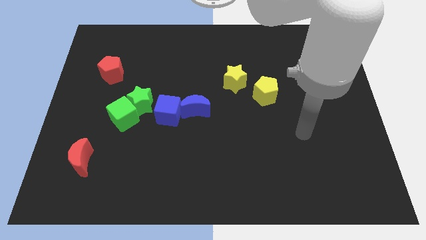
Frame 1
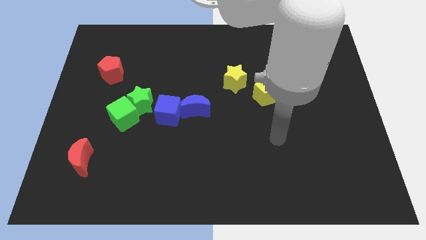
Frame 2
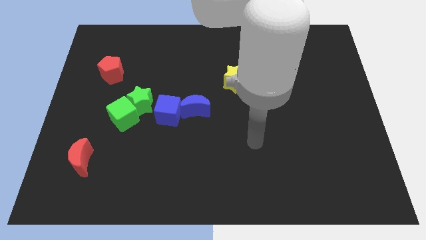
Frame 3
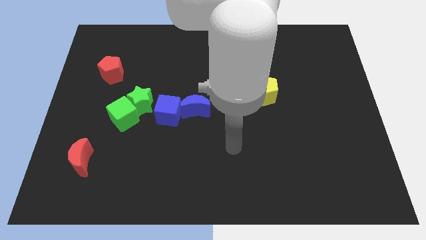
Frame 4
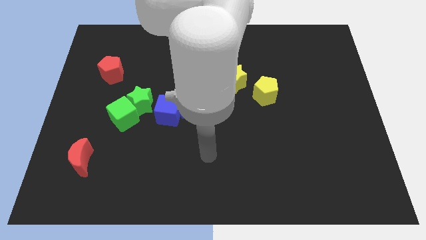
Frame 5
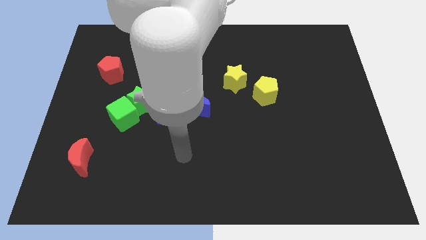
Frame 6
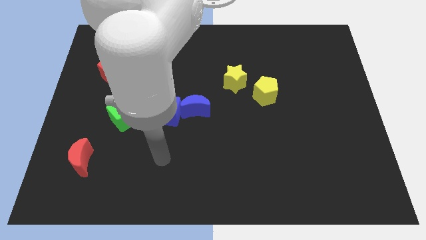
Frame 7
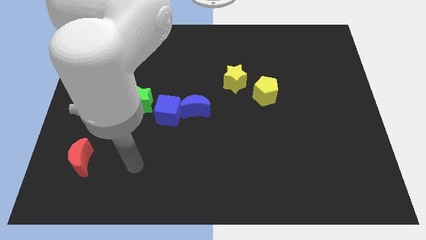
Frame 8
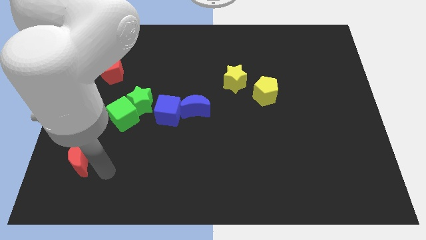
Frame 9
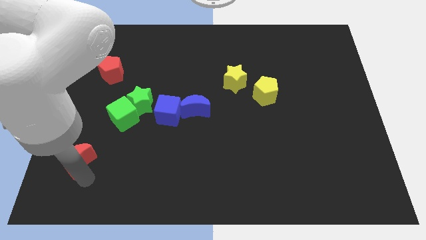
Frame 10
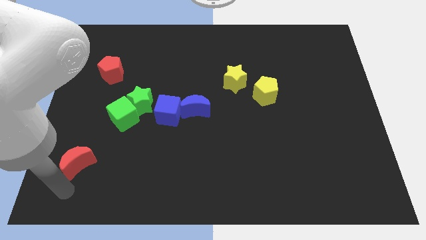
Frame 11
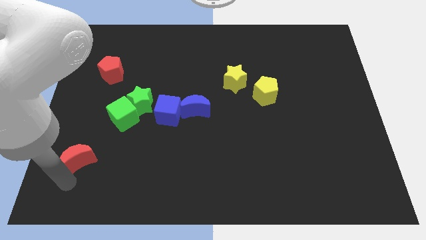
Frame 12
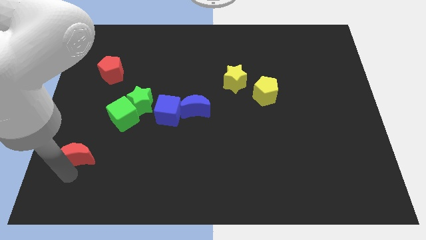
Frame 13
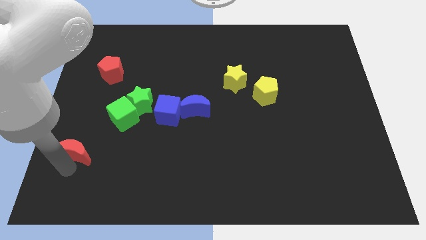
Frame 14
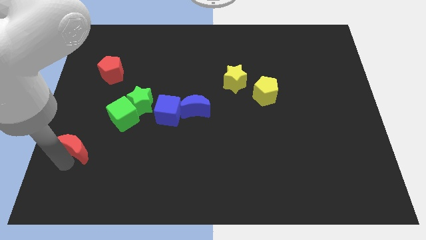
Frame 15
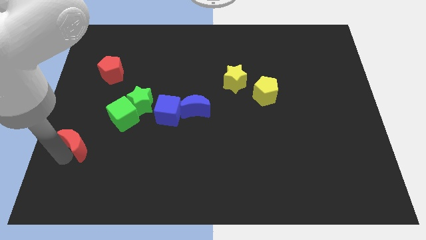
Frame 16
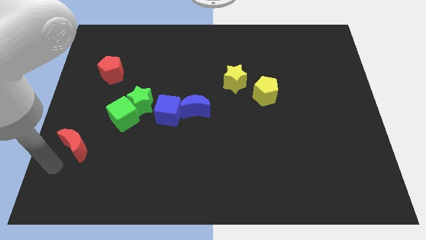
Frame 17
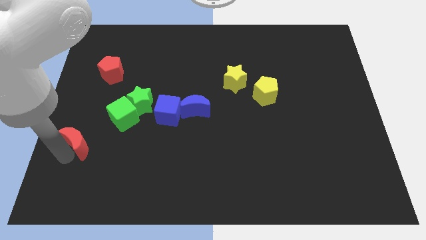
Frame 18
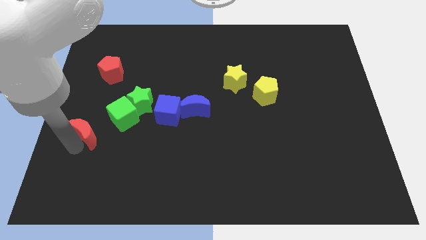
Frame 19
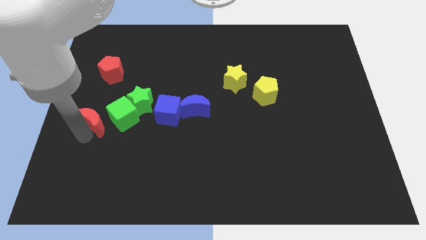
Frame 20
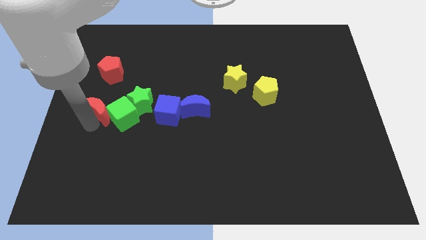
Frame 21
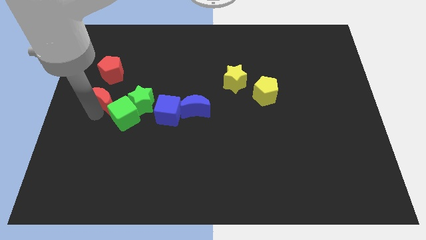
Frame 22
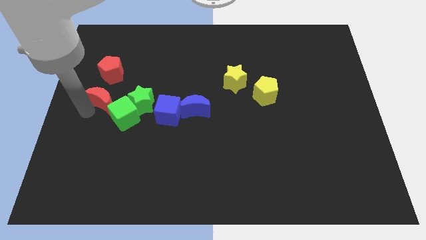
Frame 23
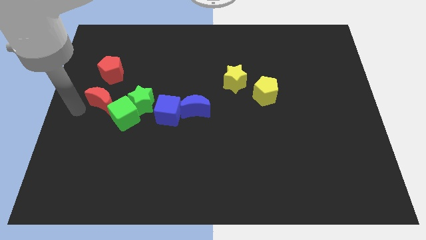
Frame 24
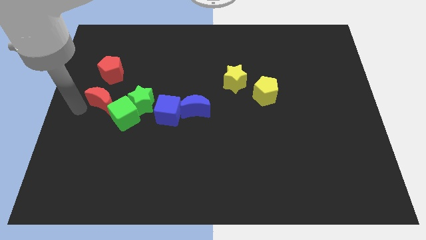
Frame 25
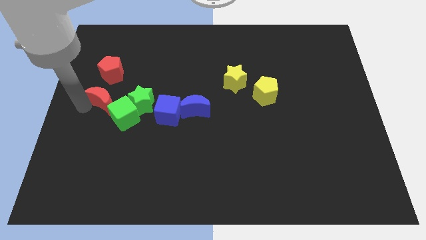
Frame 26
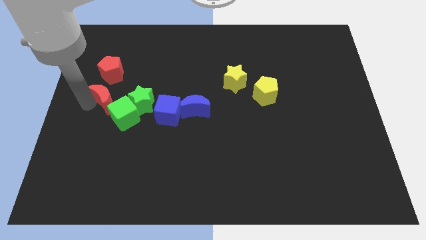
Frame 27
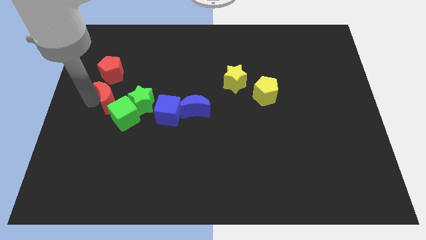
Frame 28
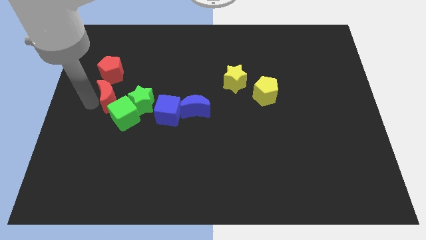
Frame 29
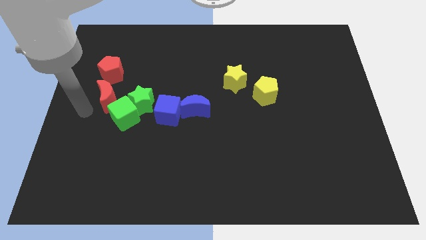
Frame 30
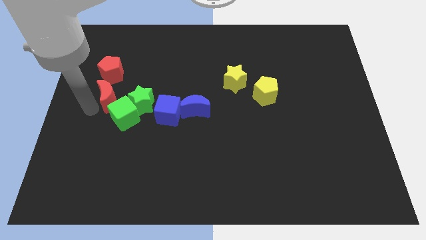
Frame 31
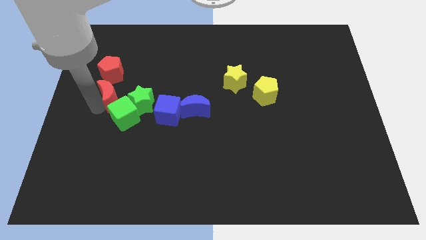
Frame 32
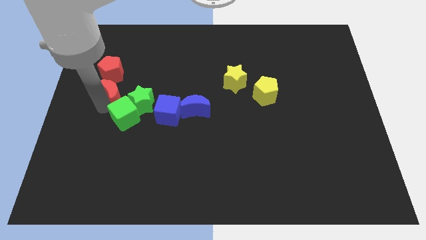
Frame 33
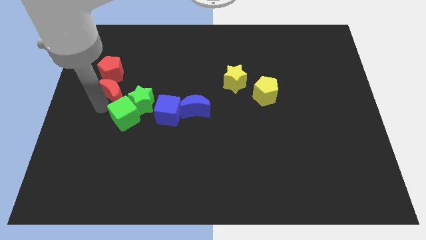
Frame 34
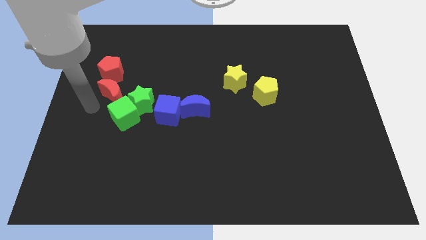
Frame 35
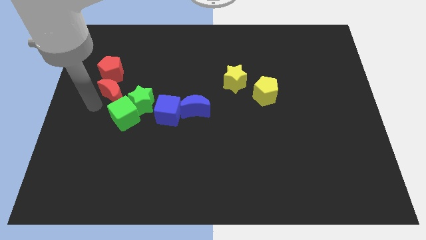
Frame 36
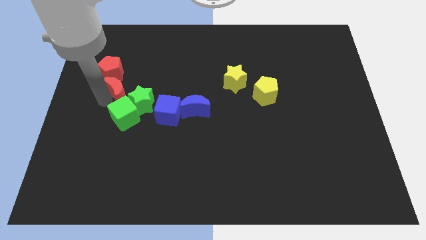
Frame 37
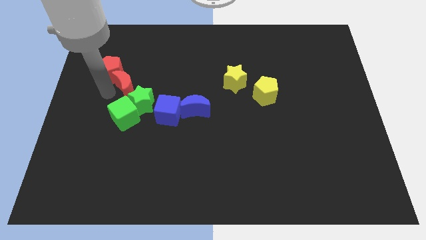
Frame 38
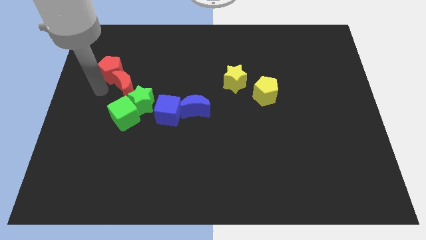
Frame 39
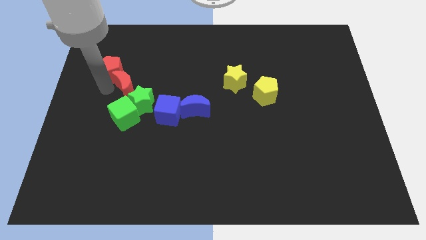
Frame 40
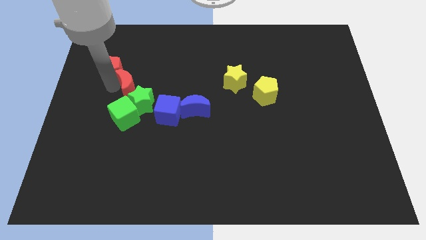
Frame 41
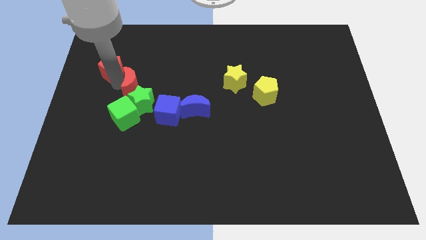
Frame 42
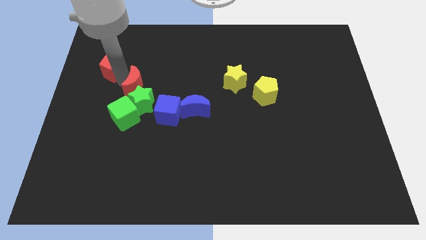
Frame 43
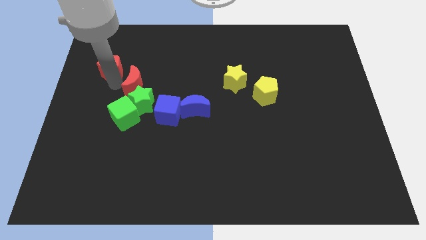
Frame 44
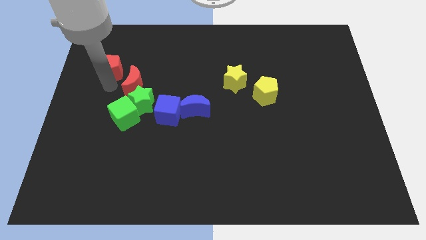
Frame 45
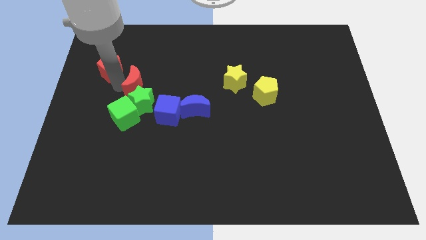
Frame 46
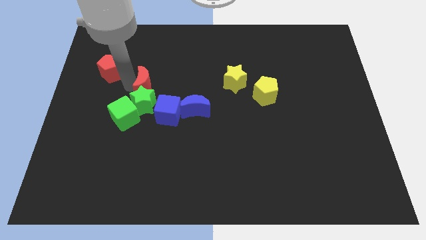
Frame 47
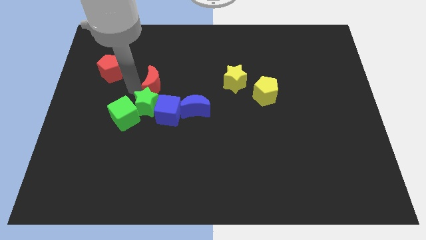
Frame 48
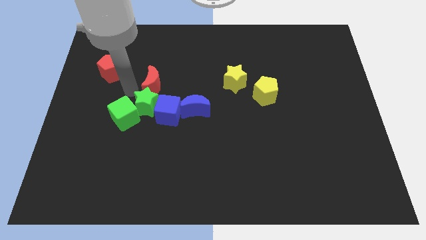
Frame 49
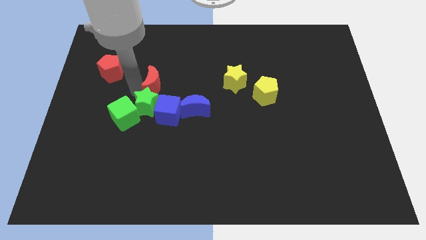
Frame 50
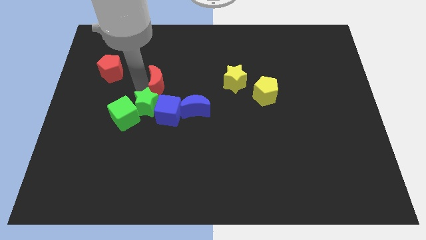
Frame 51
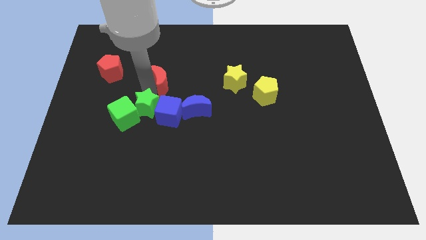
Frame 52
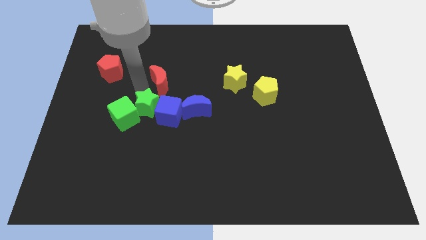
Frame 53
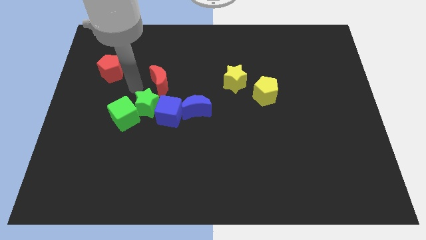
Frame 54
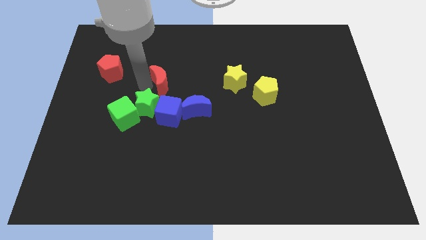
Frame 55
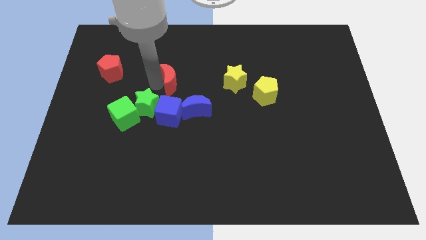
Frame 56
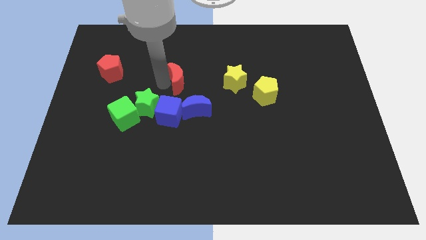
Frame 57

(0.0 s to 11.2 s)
put the red moon to the top of the blue moon

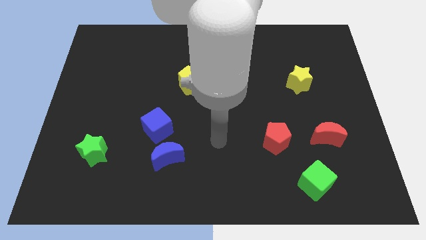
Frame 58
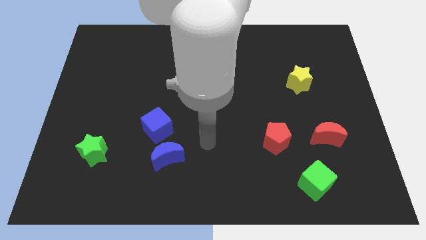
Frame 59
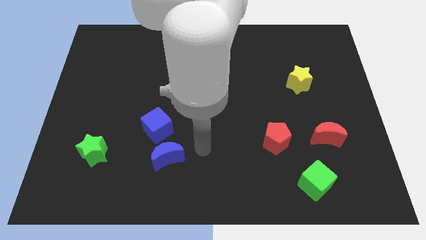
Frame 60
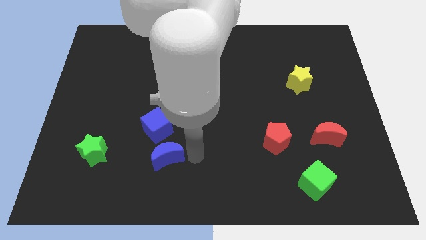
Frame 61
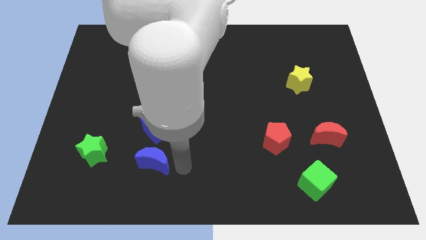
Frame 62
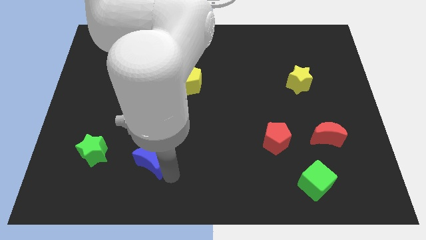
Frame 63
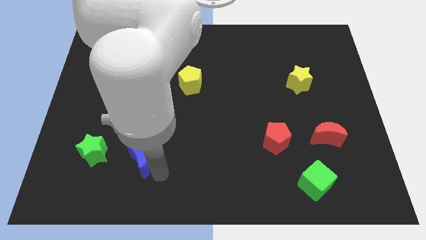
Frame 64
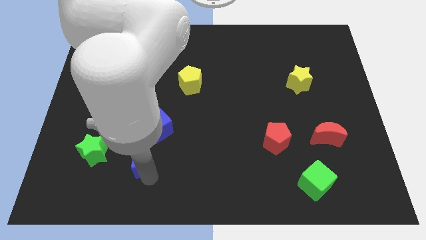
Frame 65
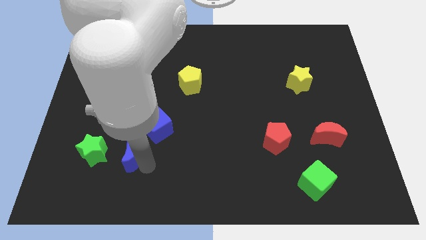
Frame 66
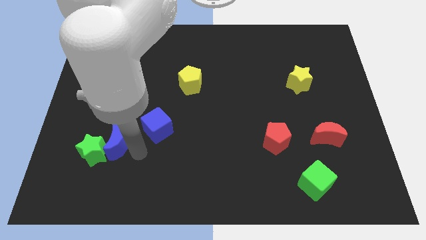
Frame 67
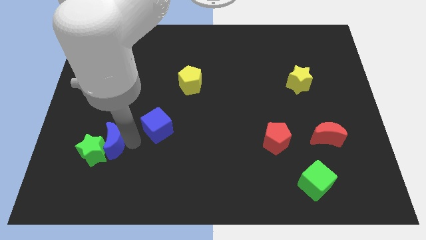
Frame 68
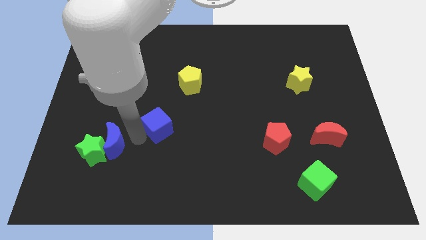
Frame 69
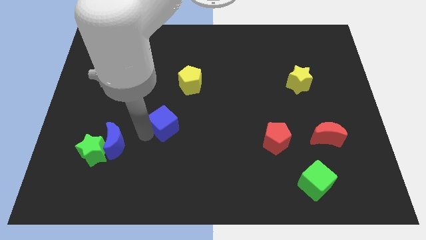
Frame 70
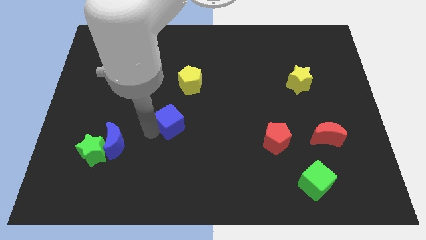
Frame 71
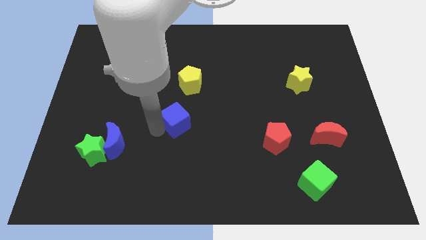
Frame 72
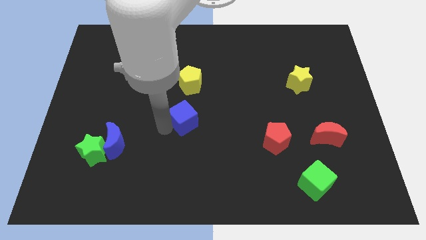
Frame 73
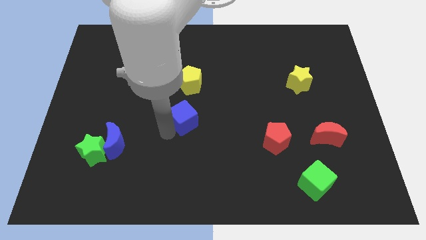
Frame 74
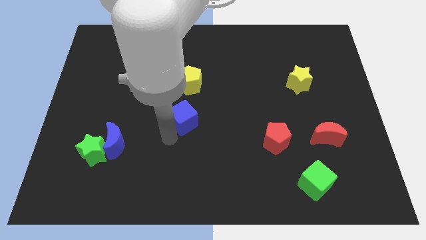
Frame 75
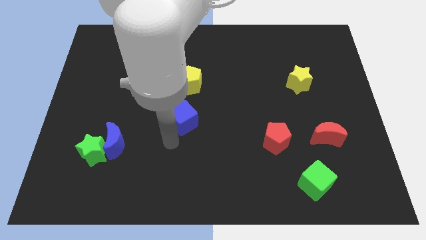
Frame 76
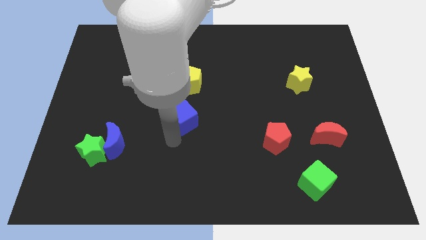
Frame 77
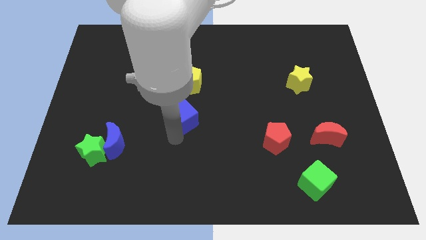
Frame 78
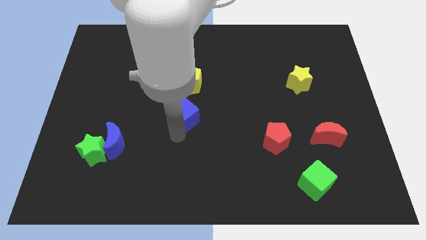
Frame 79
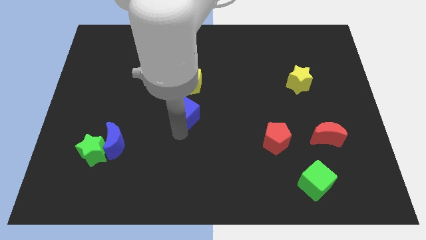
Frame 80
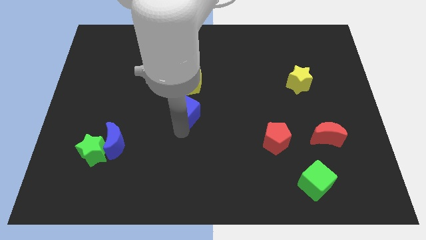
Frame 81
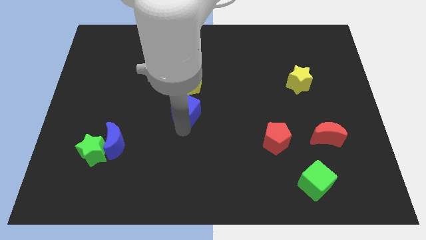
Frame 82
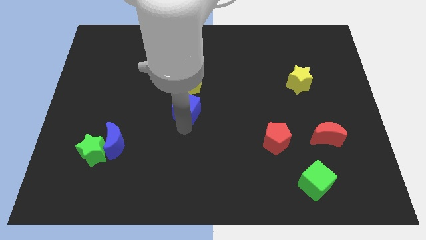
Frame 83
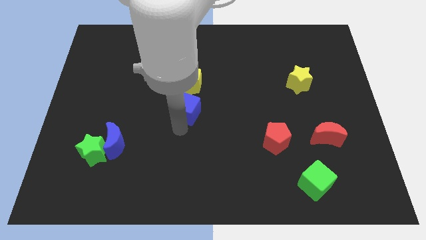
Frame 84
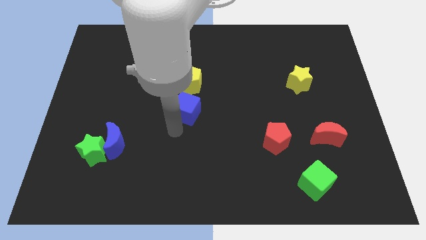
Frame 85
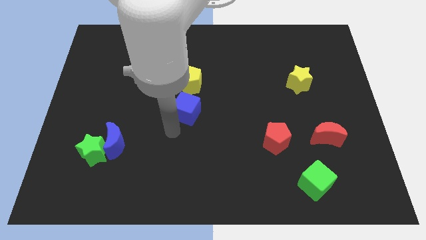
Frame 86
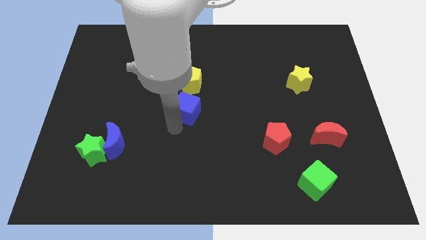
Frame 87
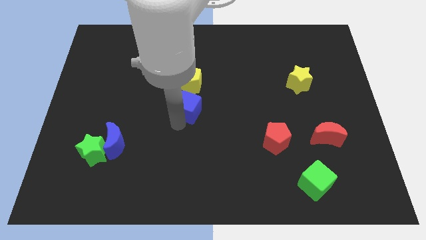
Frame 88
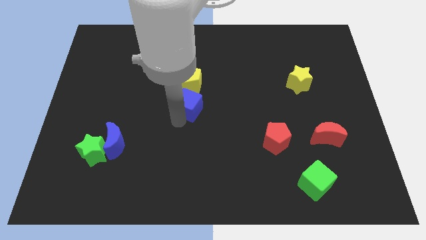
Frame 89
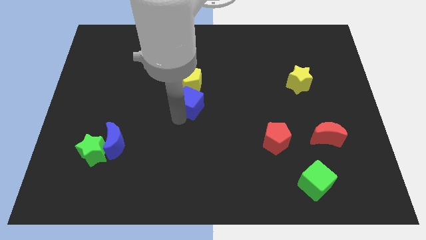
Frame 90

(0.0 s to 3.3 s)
slide the blue cube diagonally down and to the right of the yellow pentagon
